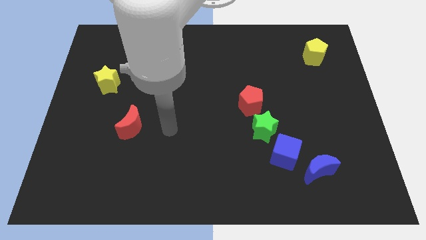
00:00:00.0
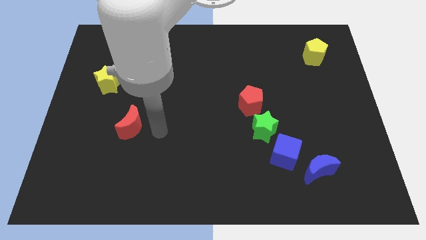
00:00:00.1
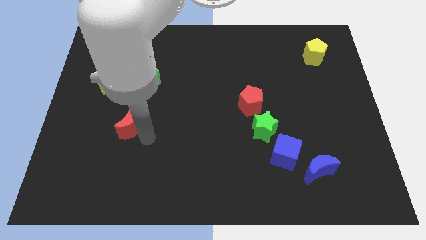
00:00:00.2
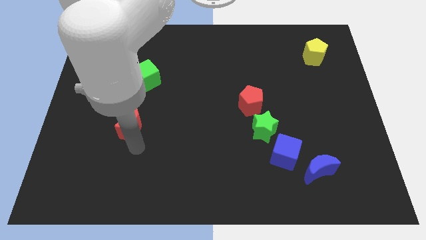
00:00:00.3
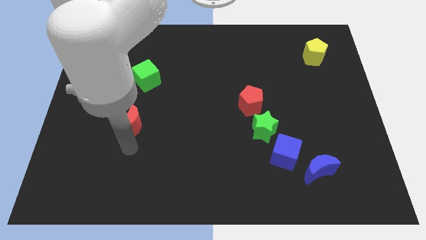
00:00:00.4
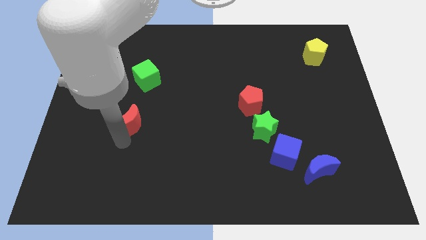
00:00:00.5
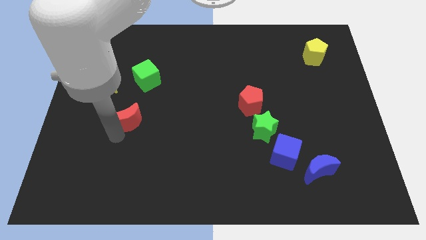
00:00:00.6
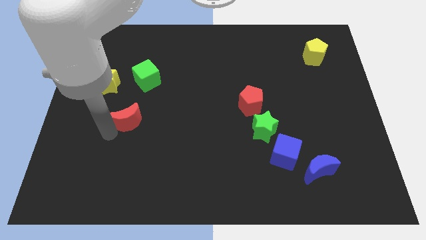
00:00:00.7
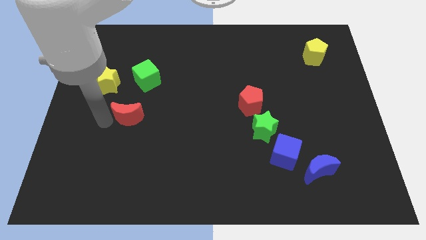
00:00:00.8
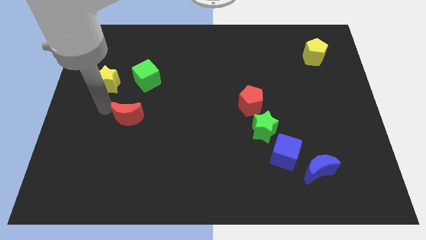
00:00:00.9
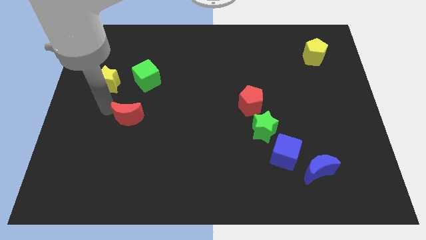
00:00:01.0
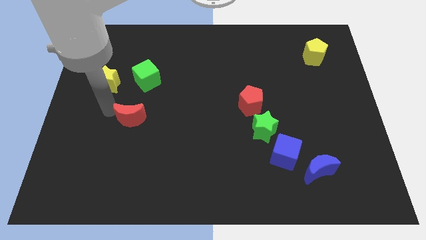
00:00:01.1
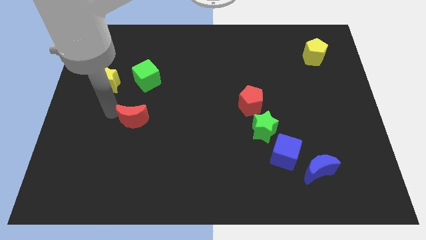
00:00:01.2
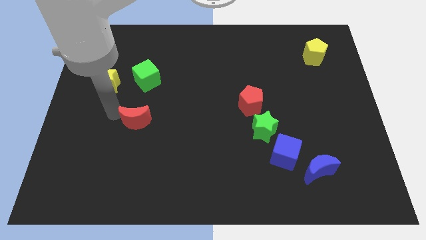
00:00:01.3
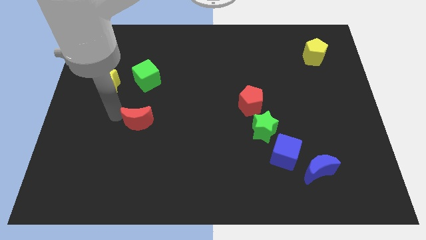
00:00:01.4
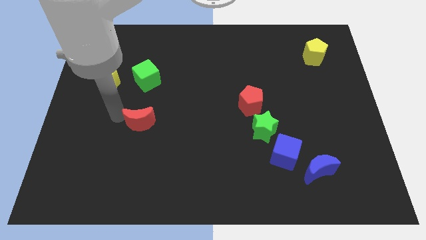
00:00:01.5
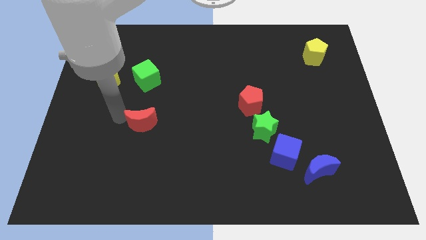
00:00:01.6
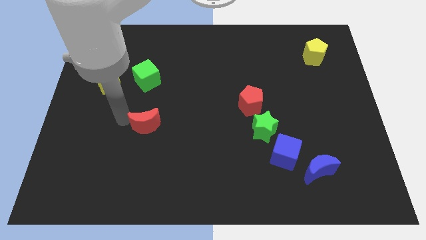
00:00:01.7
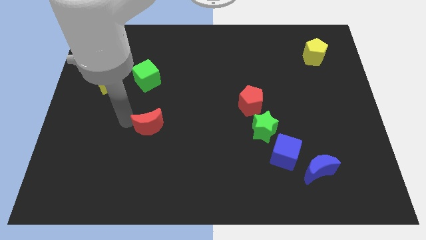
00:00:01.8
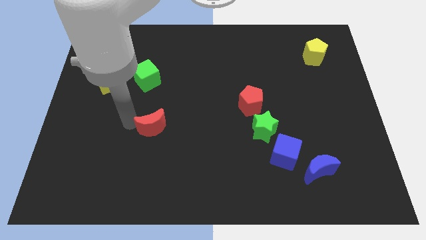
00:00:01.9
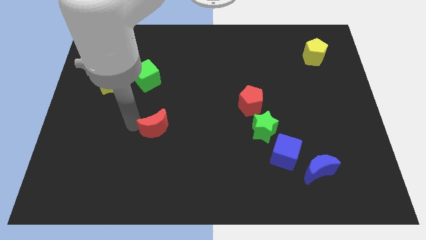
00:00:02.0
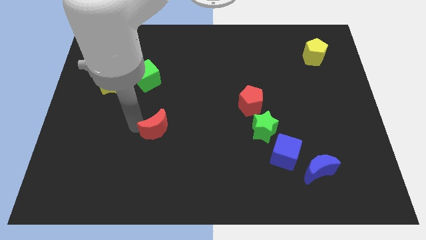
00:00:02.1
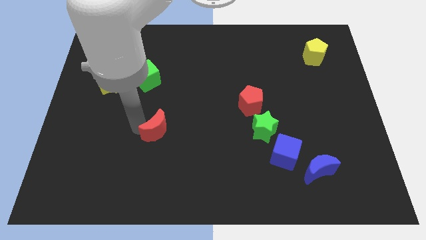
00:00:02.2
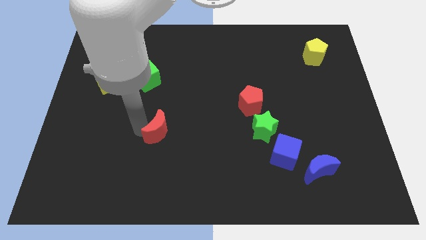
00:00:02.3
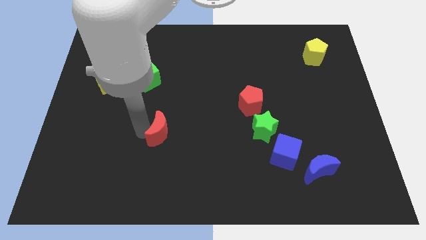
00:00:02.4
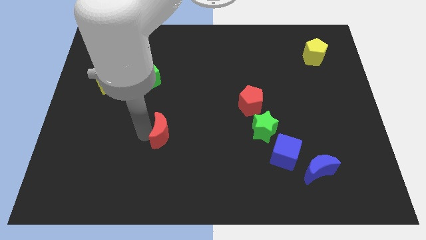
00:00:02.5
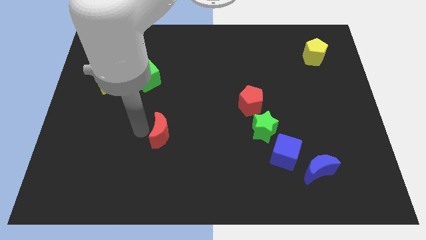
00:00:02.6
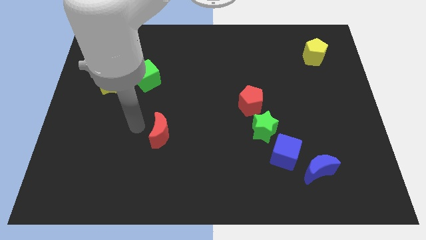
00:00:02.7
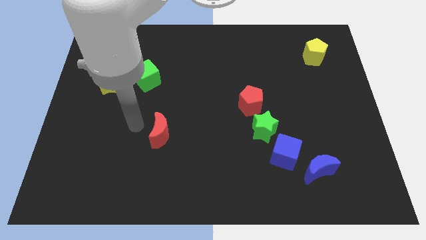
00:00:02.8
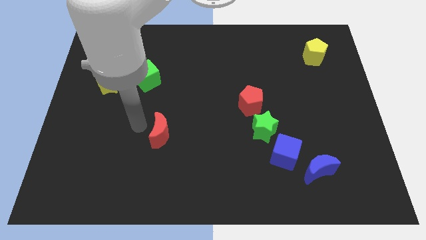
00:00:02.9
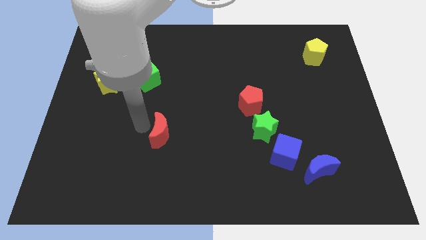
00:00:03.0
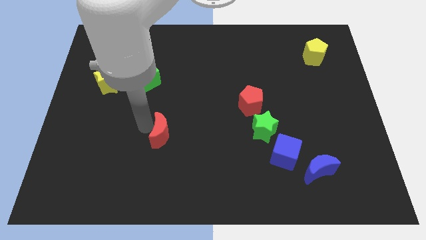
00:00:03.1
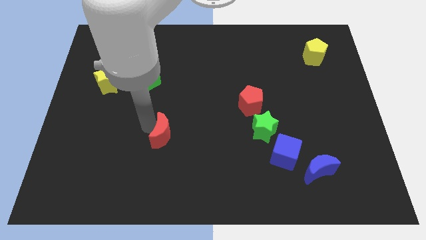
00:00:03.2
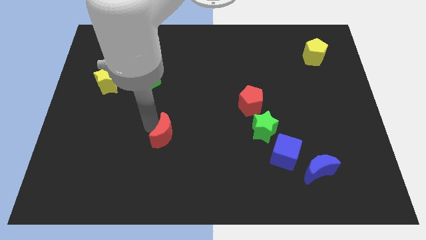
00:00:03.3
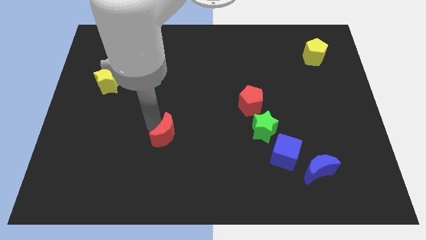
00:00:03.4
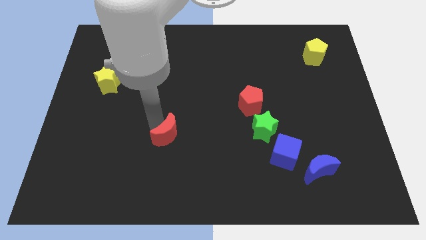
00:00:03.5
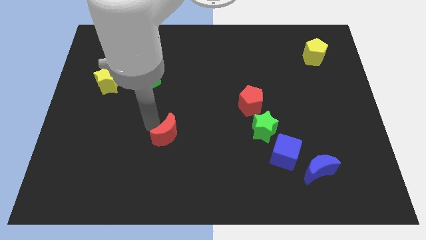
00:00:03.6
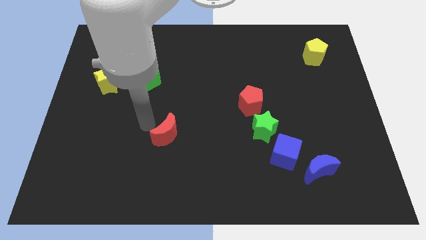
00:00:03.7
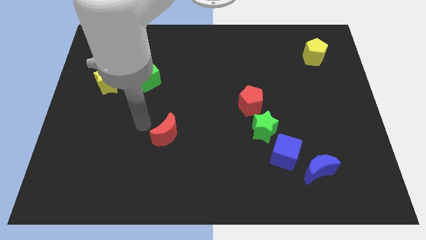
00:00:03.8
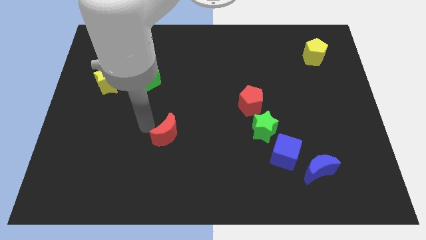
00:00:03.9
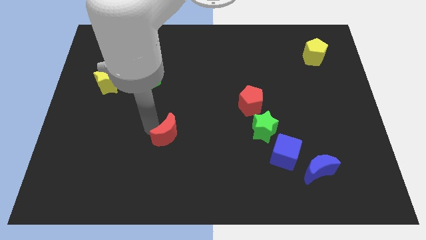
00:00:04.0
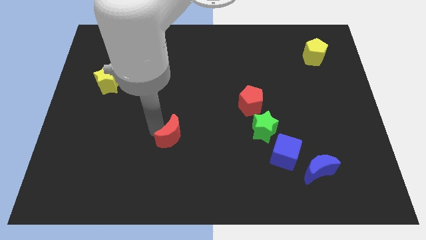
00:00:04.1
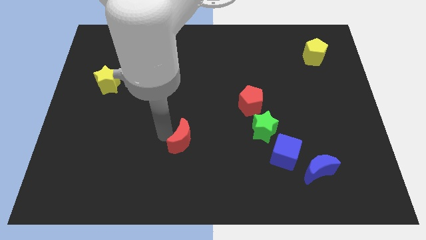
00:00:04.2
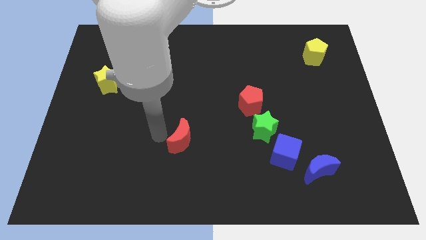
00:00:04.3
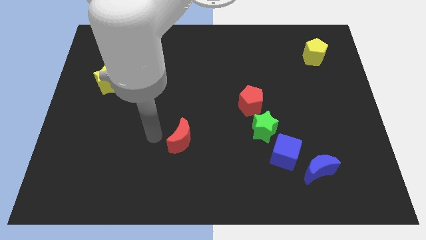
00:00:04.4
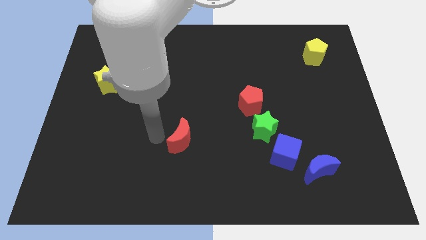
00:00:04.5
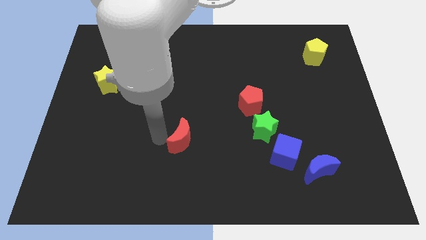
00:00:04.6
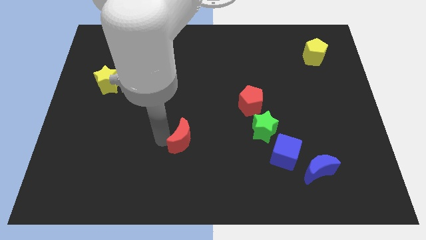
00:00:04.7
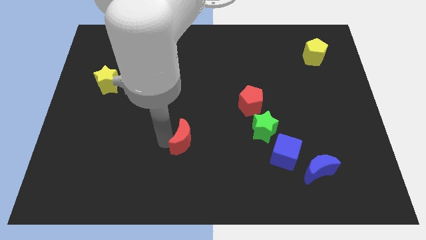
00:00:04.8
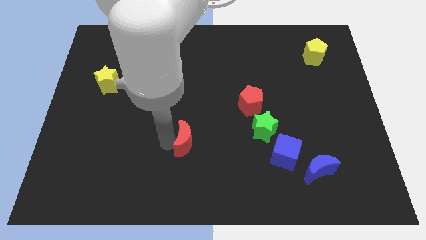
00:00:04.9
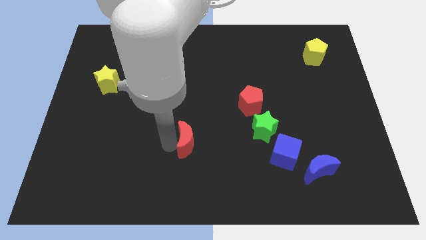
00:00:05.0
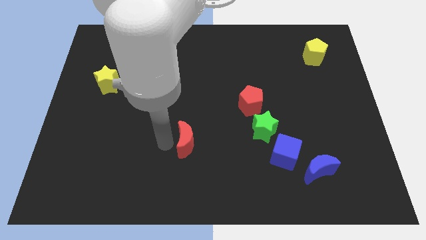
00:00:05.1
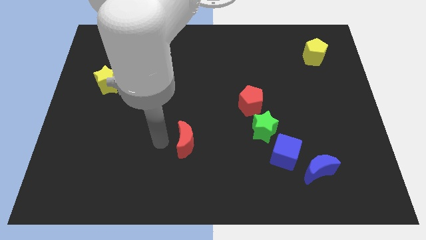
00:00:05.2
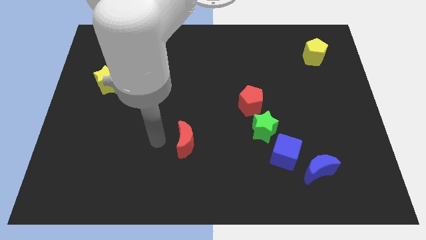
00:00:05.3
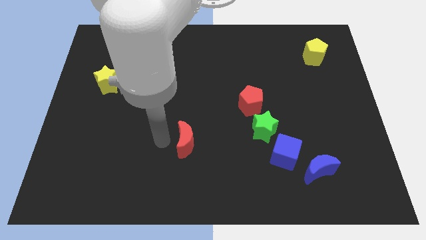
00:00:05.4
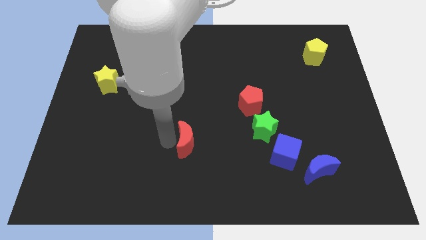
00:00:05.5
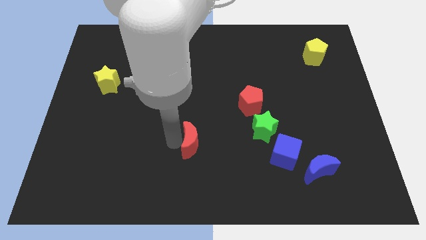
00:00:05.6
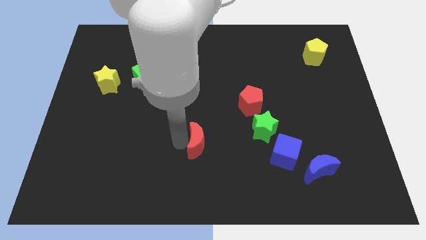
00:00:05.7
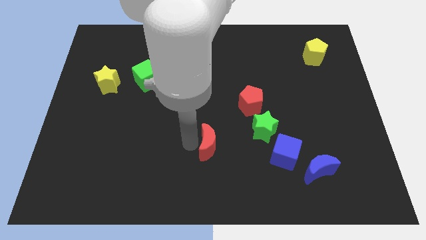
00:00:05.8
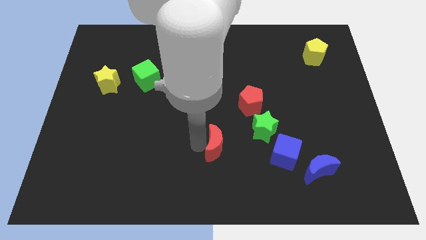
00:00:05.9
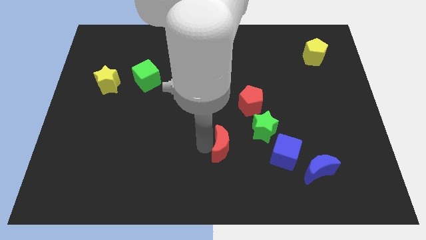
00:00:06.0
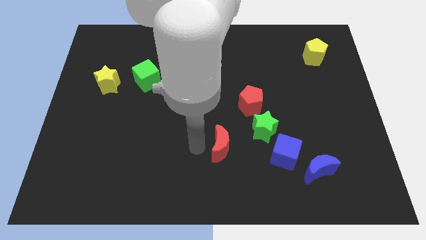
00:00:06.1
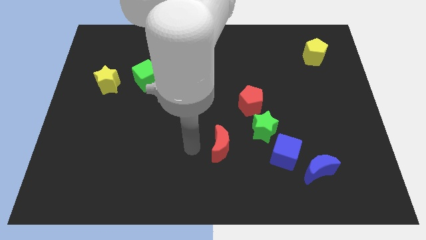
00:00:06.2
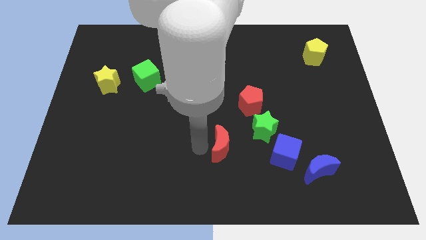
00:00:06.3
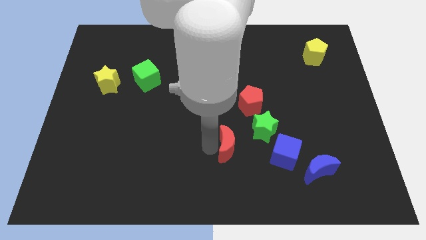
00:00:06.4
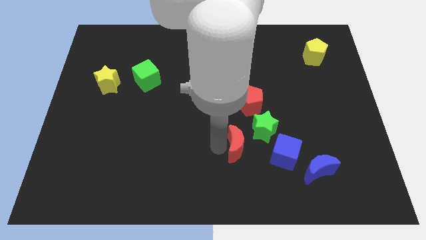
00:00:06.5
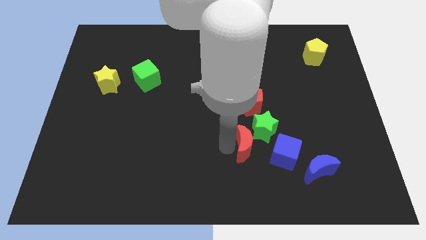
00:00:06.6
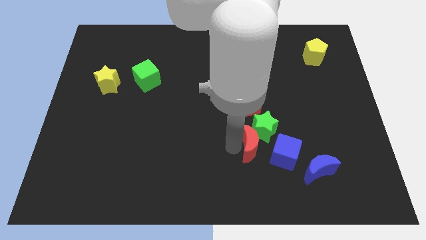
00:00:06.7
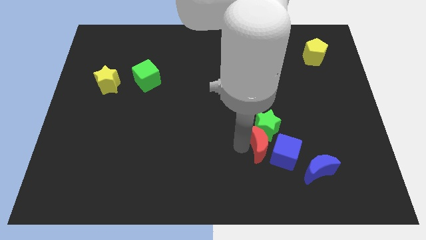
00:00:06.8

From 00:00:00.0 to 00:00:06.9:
slide the red moon towards the blue cube

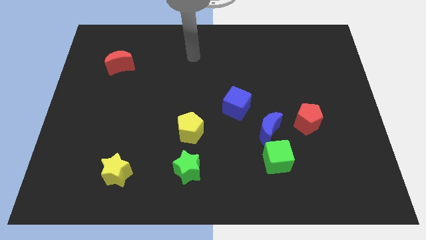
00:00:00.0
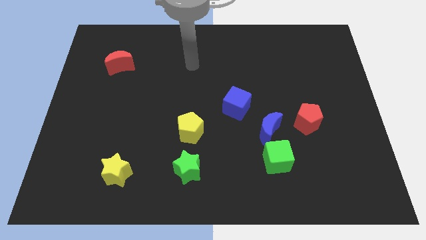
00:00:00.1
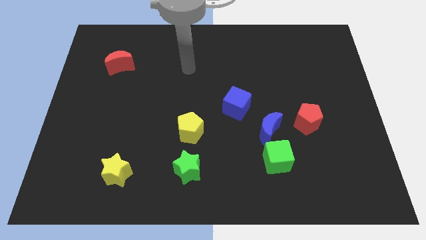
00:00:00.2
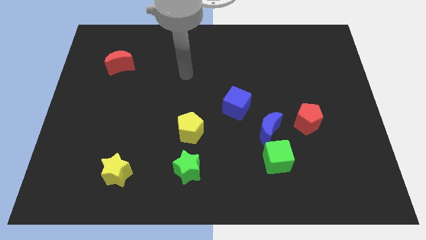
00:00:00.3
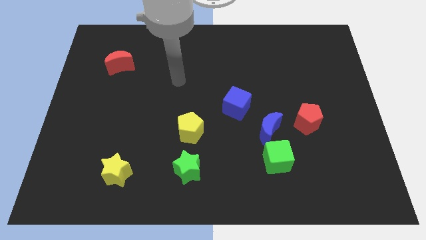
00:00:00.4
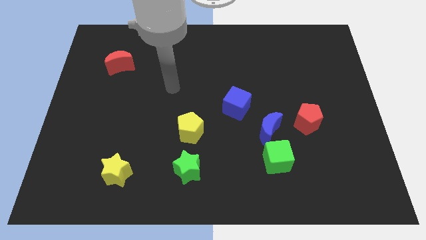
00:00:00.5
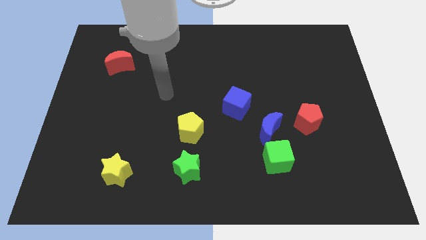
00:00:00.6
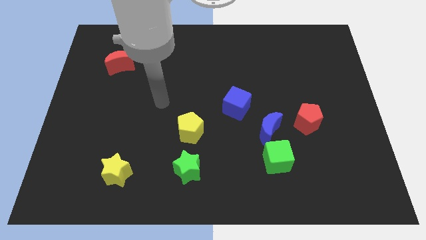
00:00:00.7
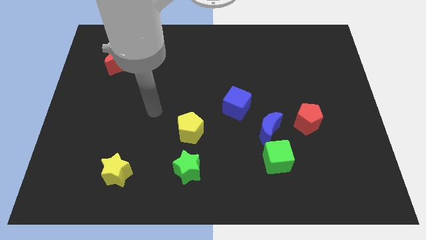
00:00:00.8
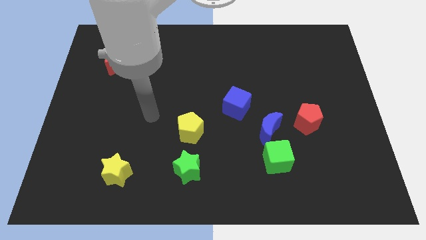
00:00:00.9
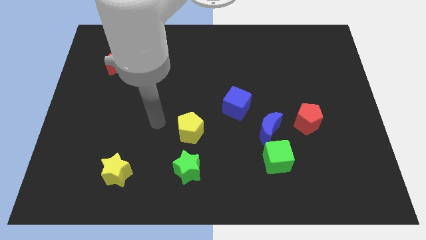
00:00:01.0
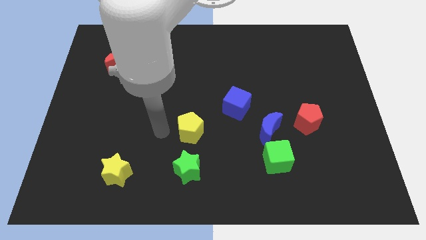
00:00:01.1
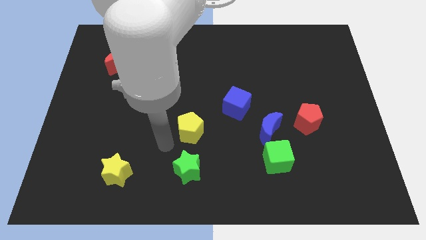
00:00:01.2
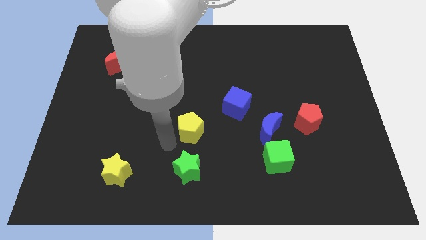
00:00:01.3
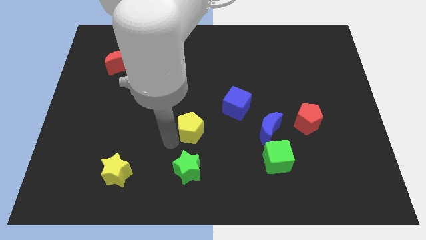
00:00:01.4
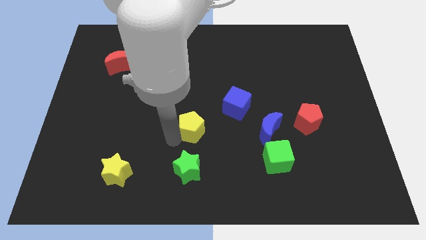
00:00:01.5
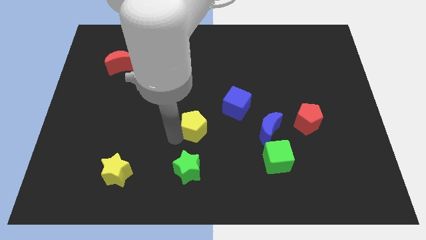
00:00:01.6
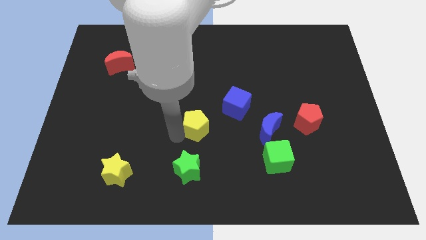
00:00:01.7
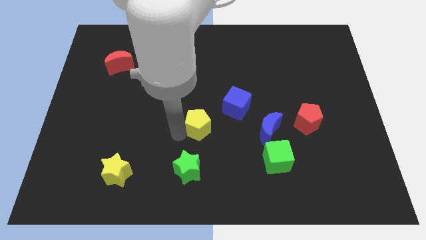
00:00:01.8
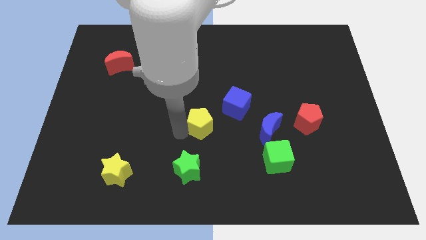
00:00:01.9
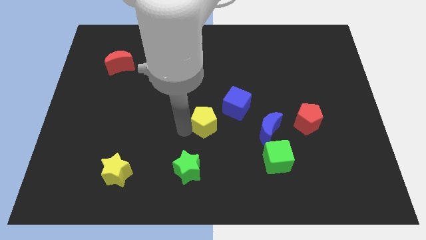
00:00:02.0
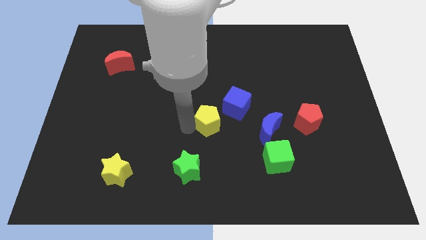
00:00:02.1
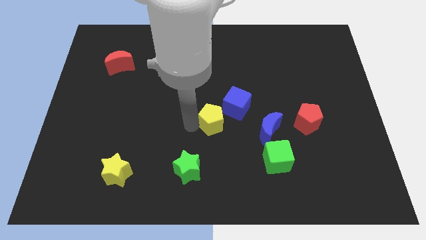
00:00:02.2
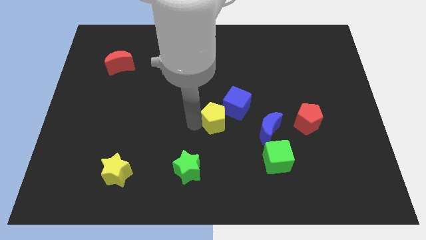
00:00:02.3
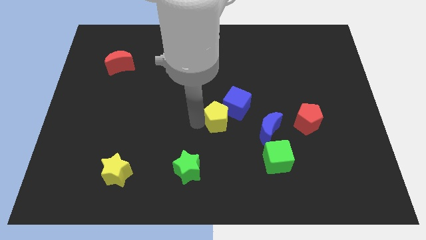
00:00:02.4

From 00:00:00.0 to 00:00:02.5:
move the yellow pentagon close to the blue cube
